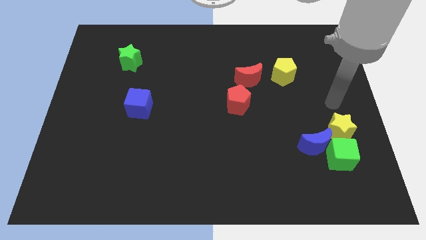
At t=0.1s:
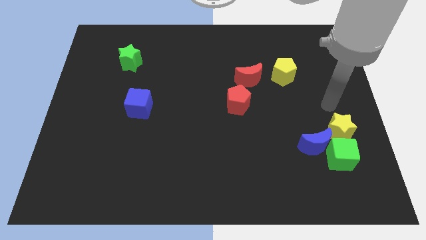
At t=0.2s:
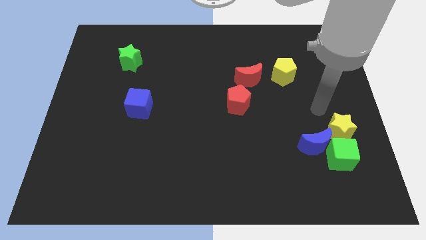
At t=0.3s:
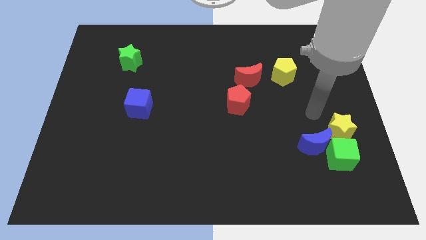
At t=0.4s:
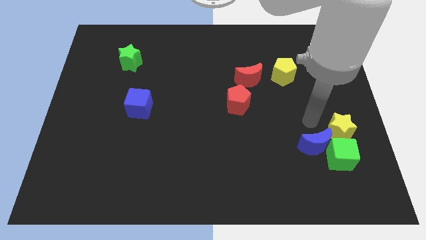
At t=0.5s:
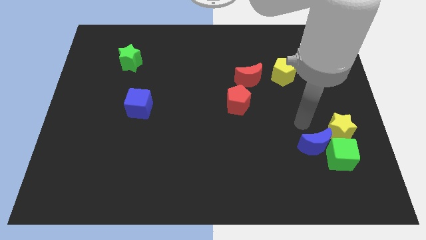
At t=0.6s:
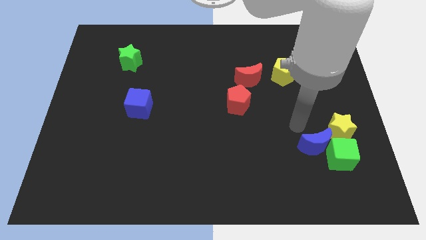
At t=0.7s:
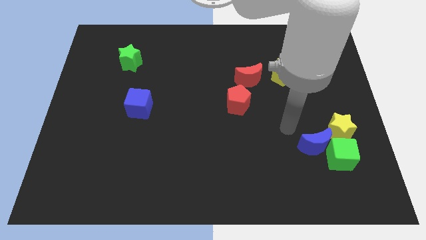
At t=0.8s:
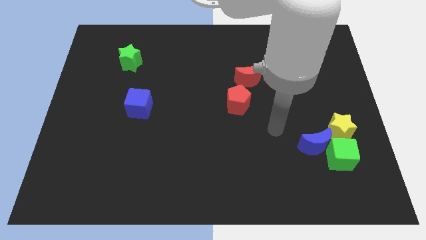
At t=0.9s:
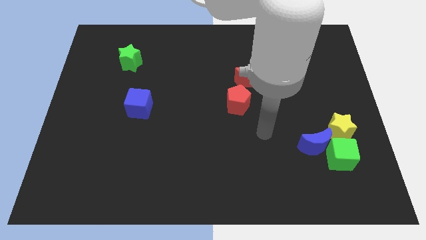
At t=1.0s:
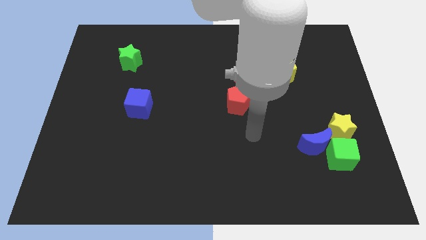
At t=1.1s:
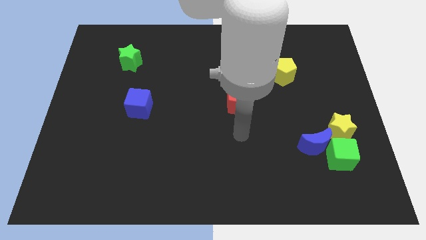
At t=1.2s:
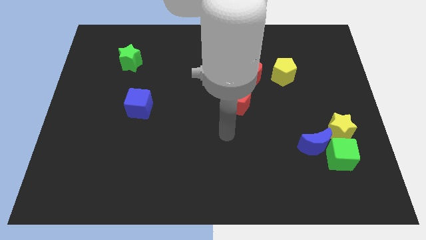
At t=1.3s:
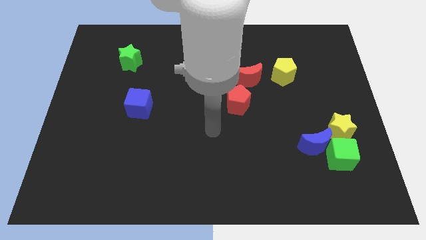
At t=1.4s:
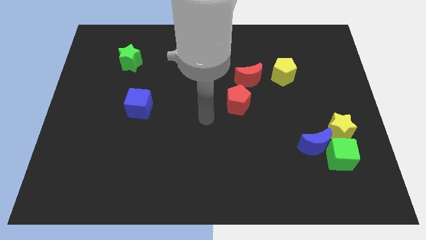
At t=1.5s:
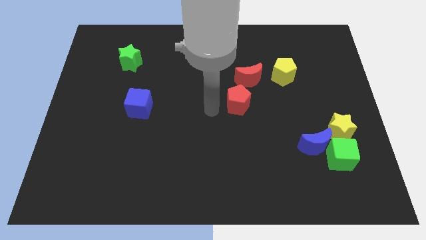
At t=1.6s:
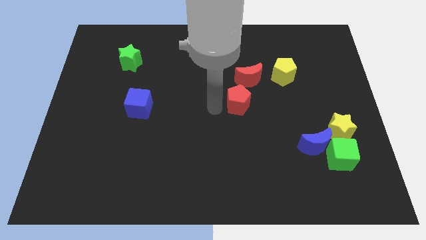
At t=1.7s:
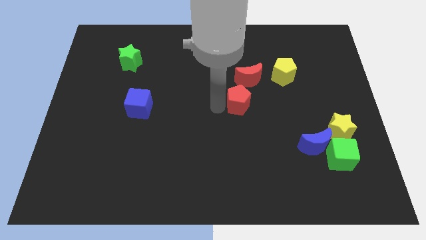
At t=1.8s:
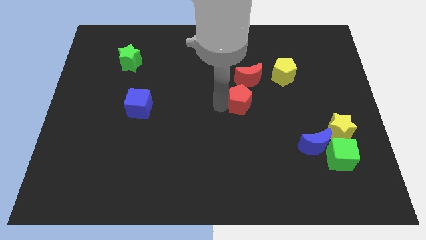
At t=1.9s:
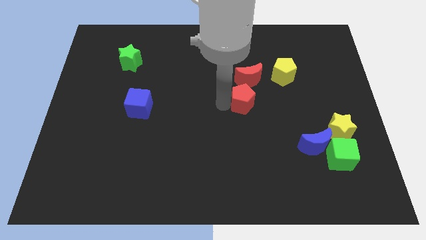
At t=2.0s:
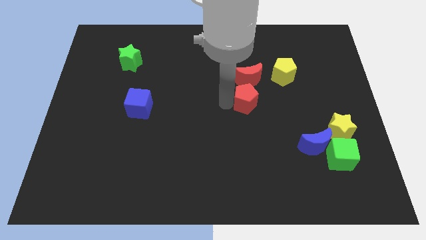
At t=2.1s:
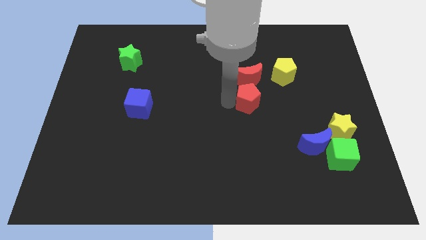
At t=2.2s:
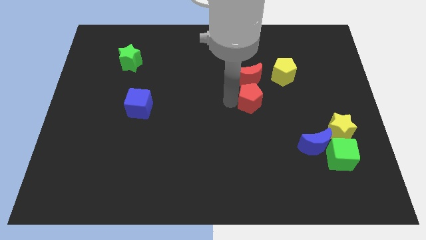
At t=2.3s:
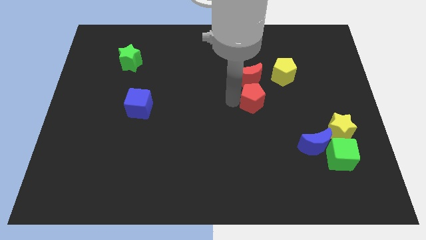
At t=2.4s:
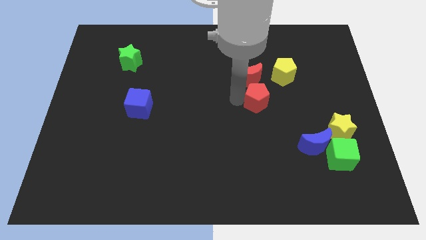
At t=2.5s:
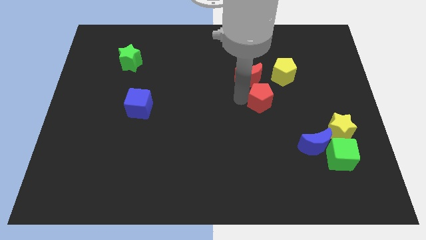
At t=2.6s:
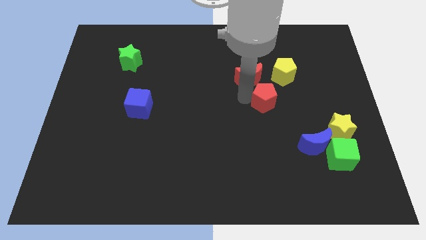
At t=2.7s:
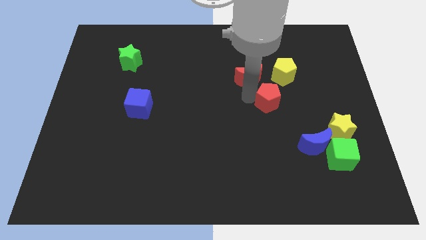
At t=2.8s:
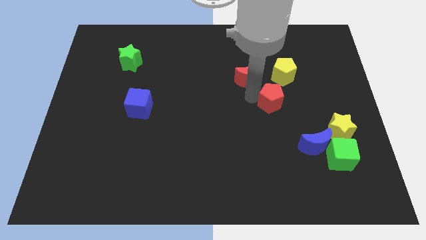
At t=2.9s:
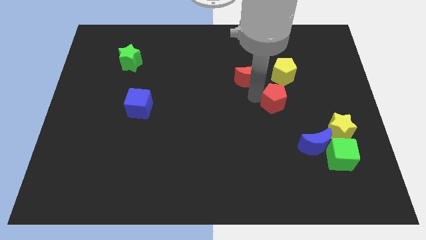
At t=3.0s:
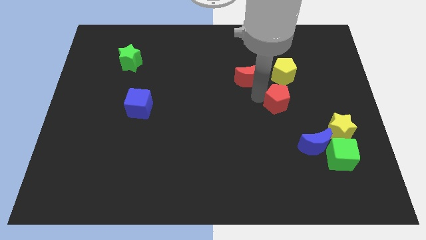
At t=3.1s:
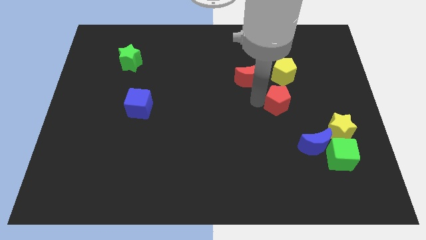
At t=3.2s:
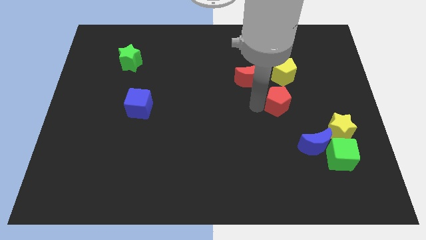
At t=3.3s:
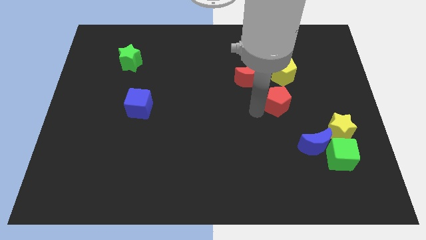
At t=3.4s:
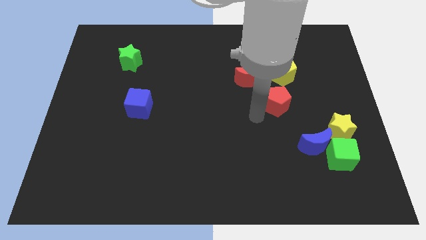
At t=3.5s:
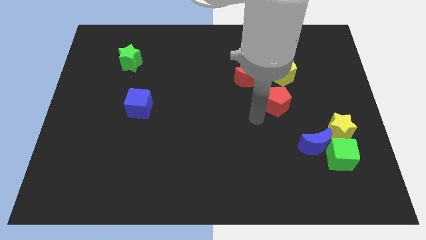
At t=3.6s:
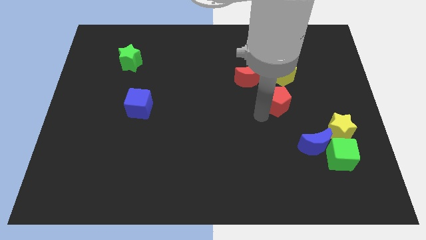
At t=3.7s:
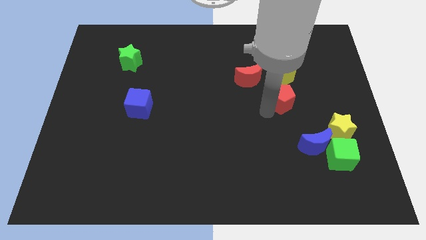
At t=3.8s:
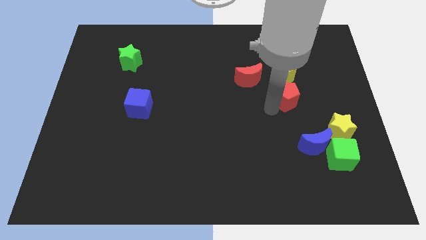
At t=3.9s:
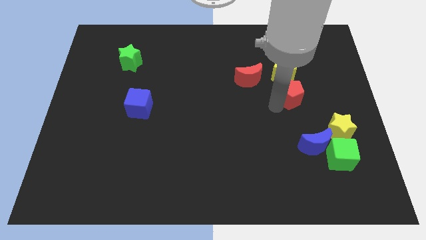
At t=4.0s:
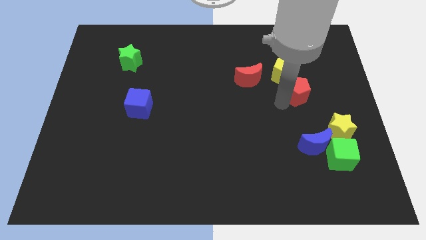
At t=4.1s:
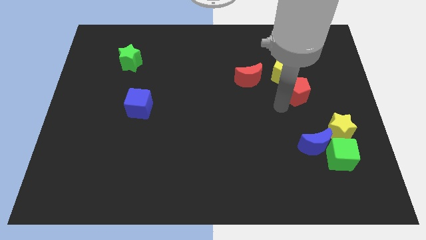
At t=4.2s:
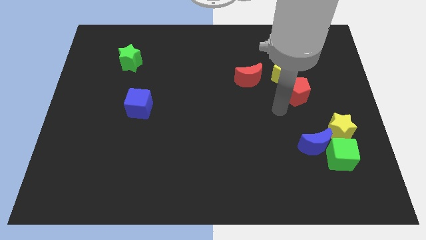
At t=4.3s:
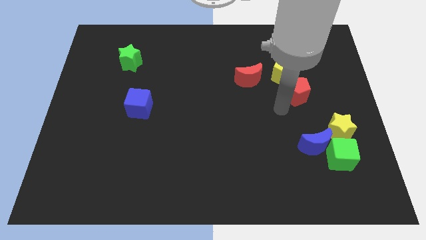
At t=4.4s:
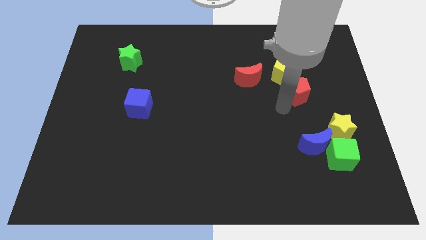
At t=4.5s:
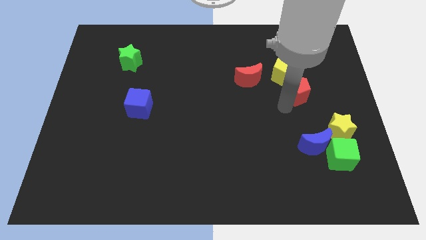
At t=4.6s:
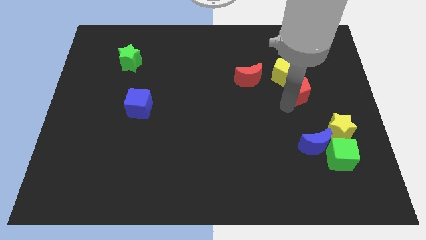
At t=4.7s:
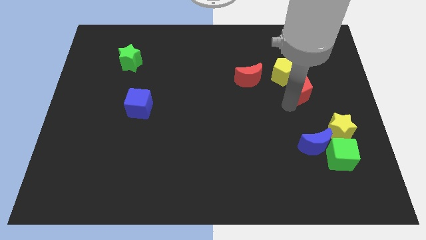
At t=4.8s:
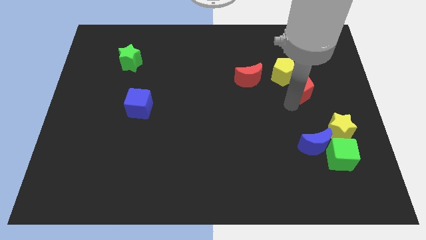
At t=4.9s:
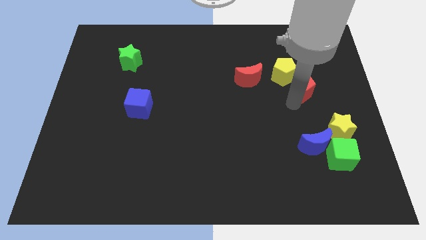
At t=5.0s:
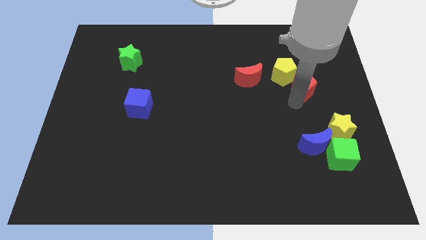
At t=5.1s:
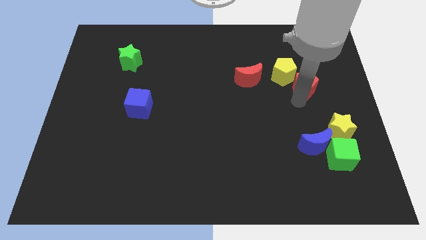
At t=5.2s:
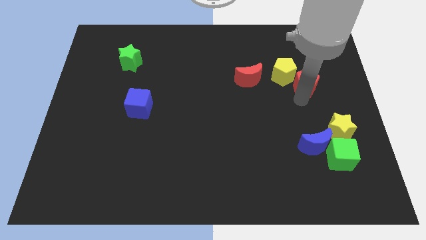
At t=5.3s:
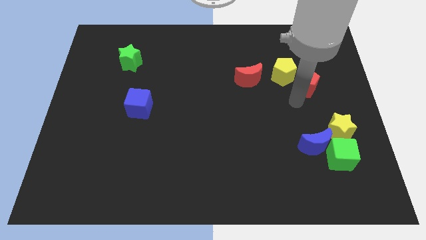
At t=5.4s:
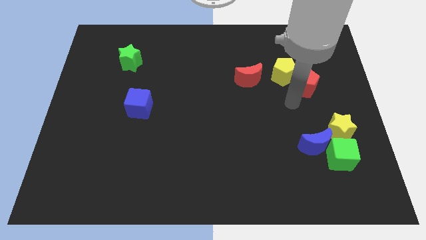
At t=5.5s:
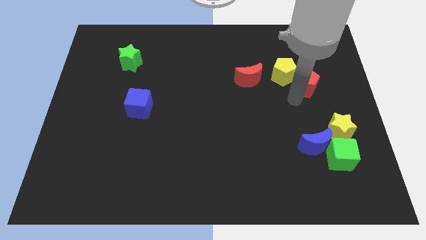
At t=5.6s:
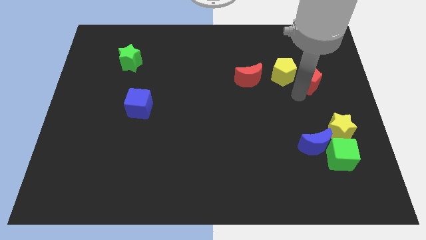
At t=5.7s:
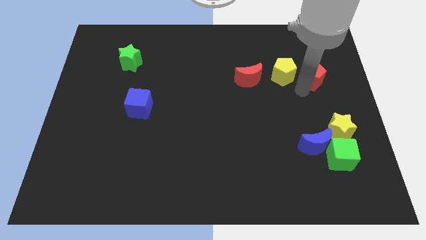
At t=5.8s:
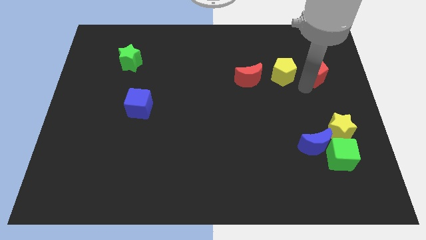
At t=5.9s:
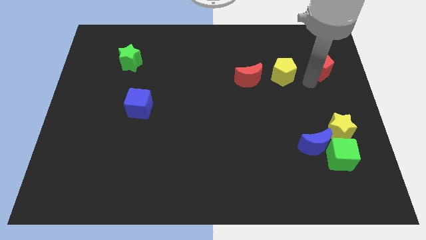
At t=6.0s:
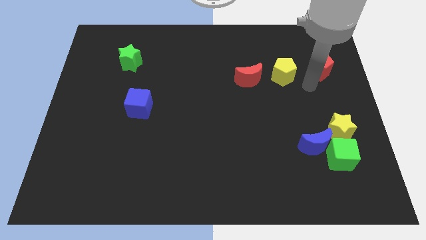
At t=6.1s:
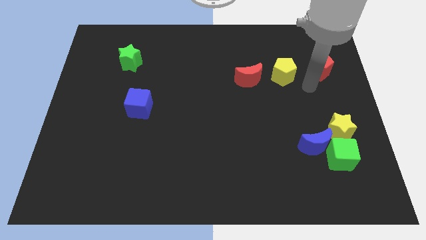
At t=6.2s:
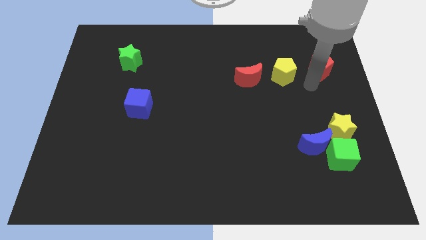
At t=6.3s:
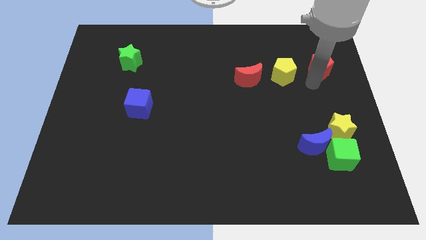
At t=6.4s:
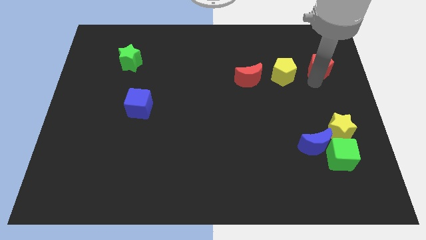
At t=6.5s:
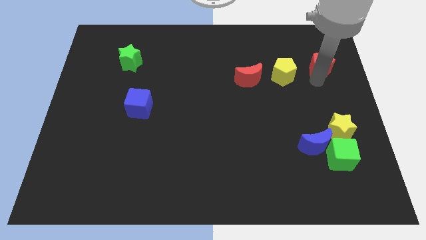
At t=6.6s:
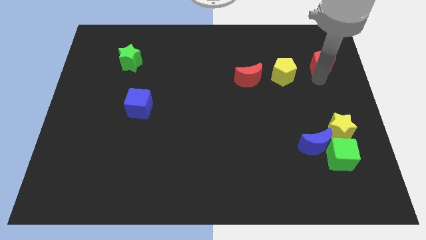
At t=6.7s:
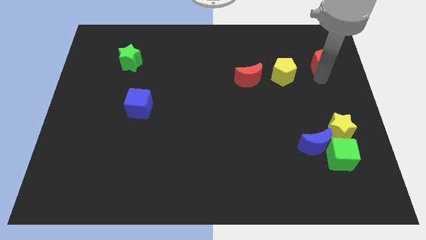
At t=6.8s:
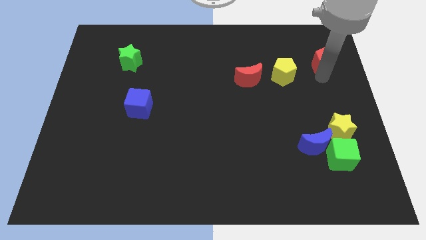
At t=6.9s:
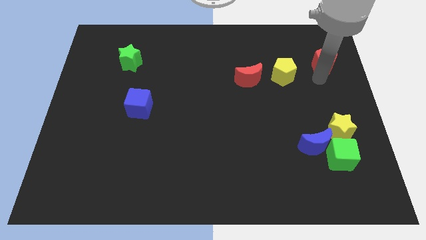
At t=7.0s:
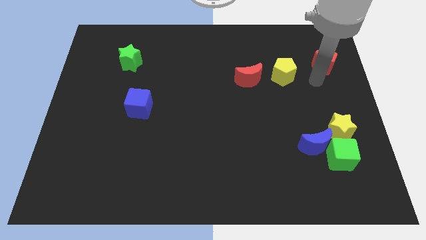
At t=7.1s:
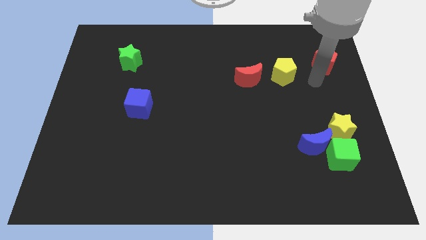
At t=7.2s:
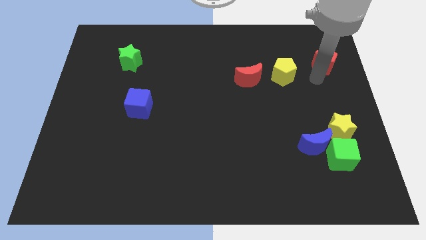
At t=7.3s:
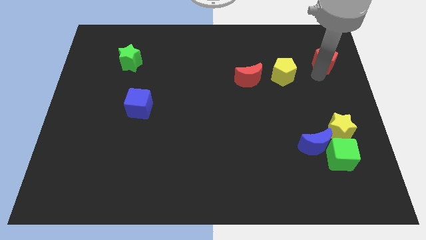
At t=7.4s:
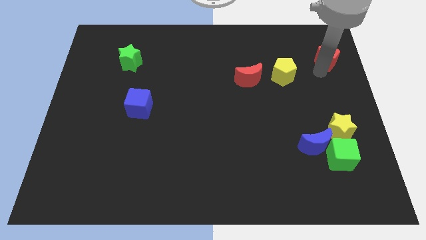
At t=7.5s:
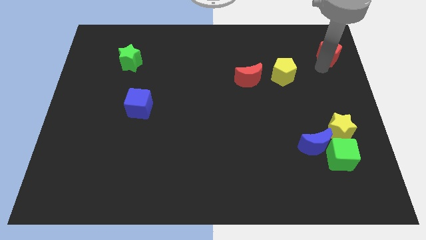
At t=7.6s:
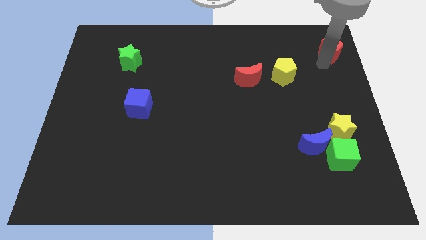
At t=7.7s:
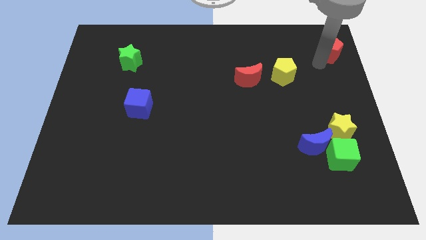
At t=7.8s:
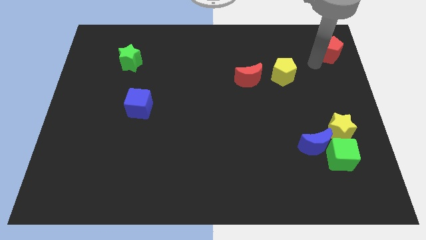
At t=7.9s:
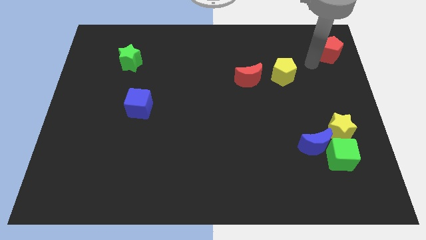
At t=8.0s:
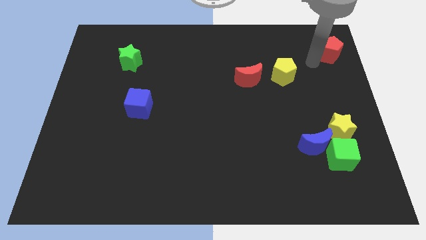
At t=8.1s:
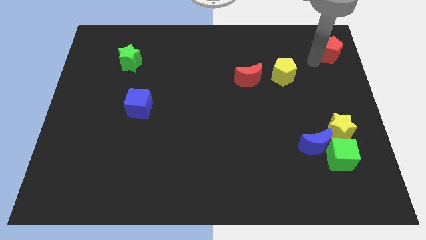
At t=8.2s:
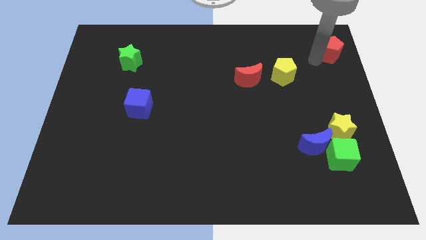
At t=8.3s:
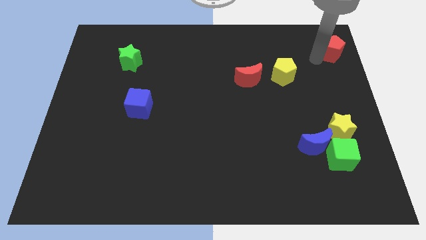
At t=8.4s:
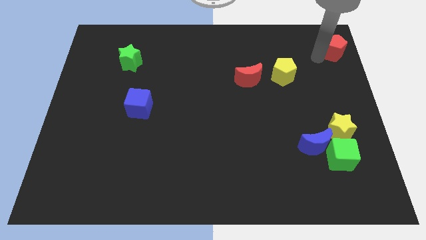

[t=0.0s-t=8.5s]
move the red pentagon to the top right corner
